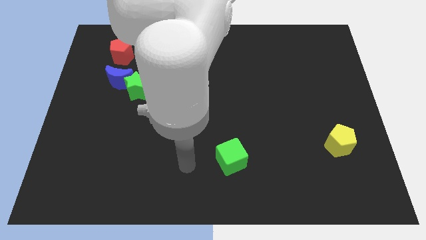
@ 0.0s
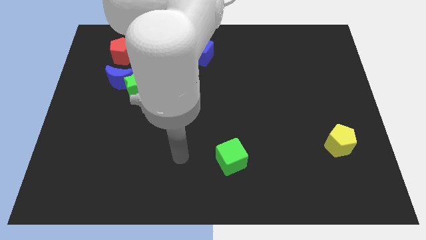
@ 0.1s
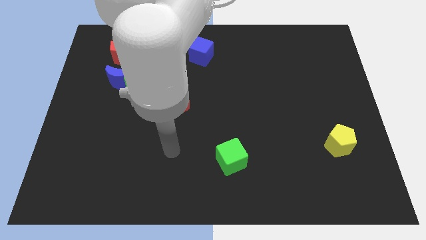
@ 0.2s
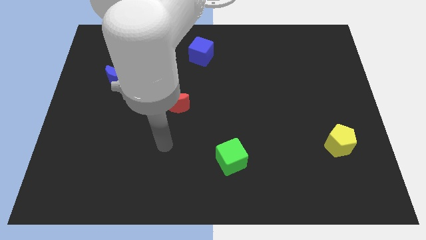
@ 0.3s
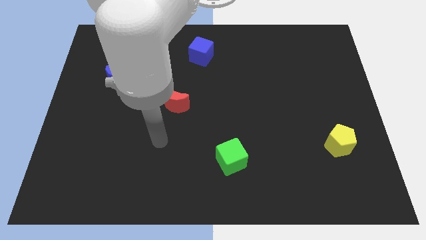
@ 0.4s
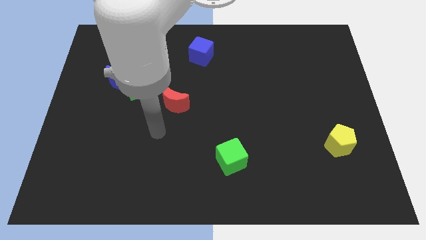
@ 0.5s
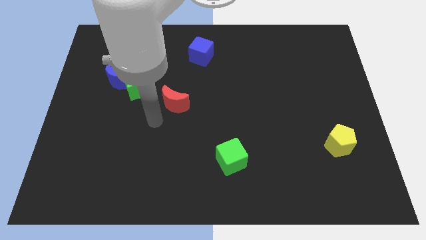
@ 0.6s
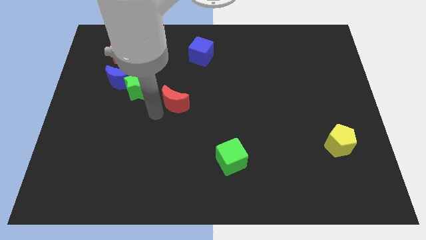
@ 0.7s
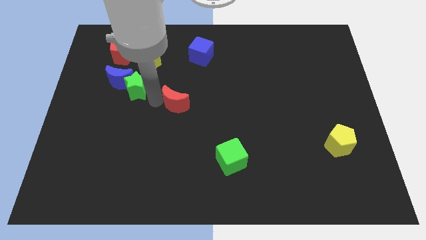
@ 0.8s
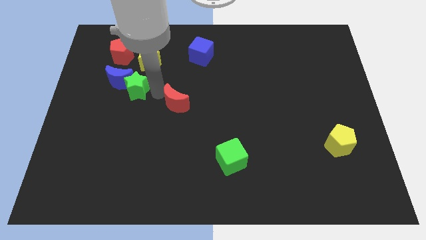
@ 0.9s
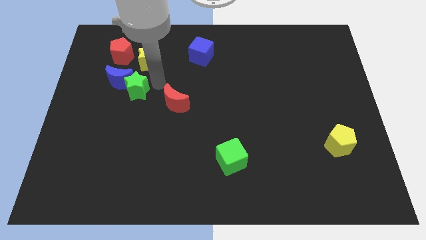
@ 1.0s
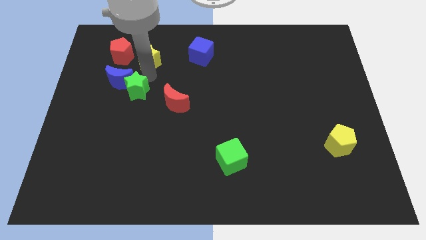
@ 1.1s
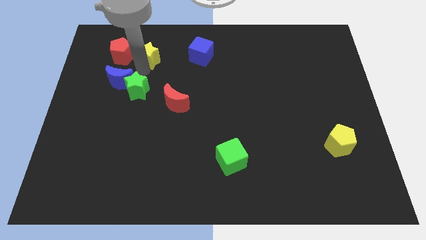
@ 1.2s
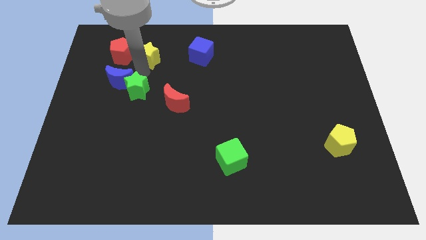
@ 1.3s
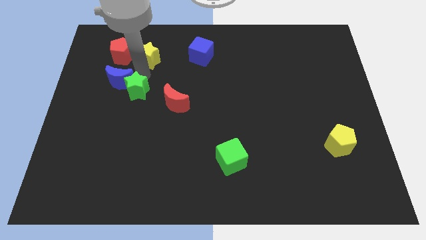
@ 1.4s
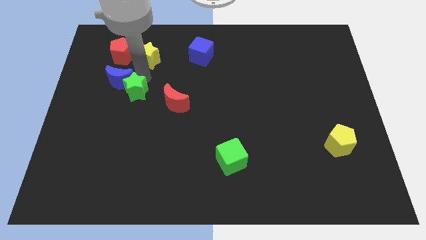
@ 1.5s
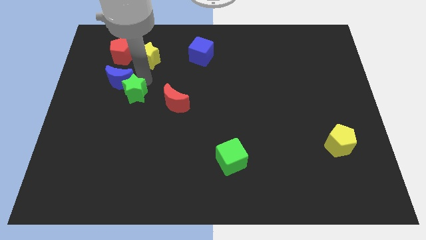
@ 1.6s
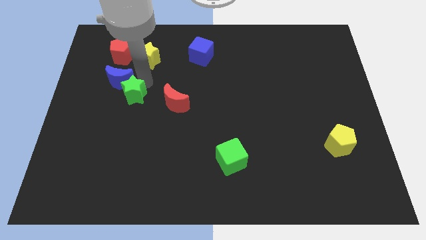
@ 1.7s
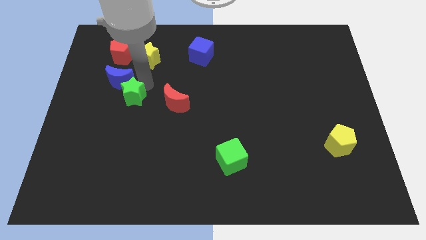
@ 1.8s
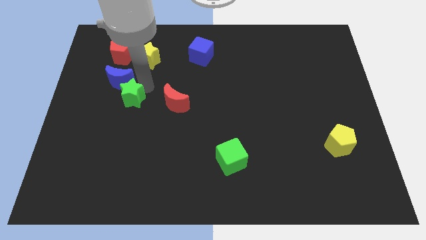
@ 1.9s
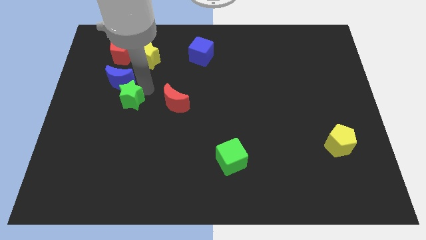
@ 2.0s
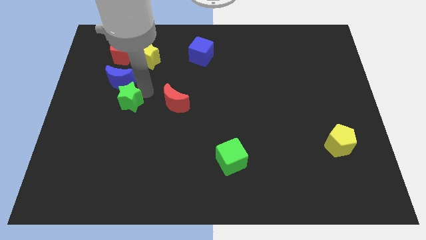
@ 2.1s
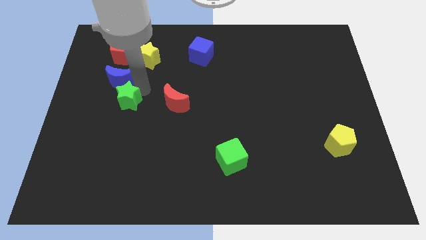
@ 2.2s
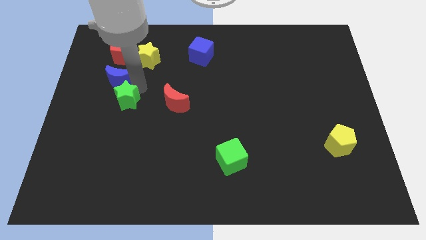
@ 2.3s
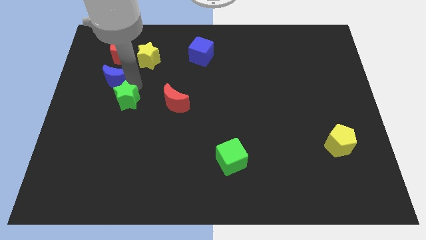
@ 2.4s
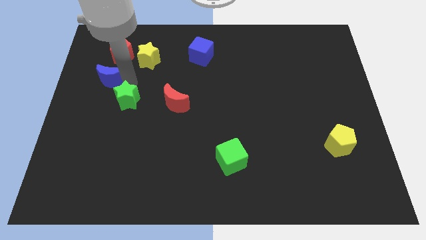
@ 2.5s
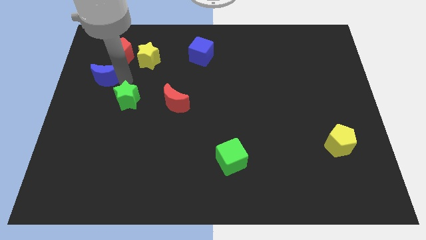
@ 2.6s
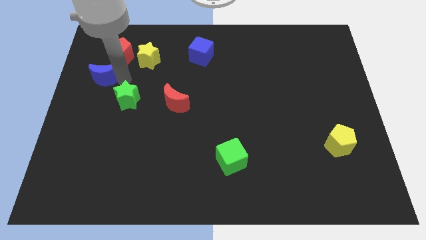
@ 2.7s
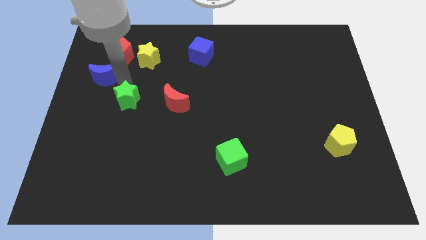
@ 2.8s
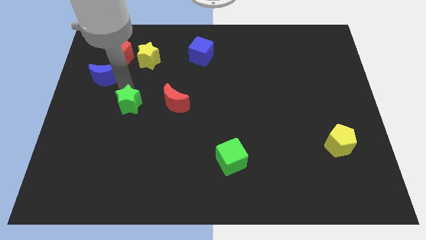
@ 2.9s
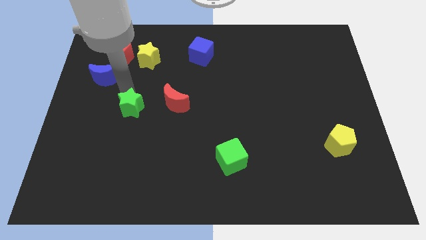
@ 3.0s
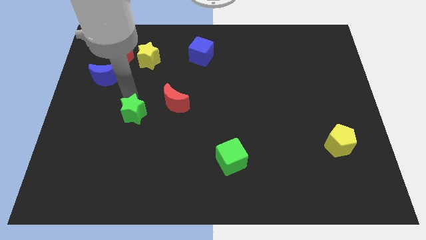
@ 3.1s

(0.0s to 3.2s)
push the green star a bit down

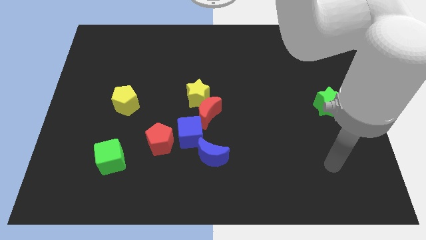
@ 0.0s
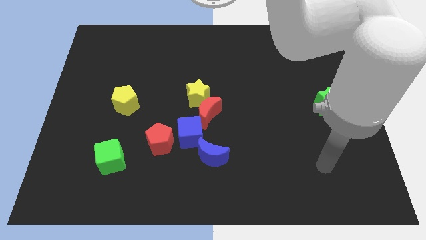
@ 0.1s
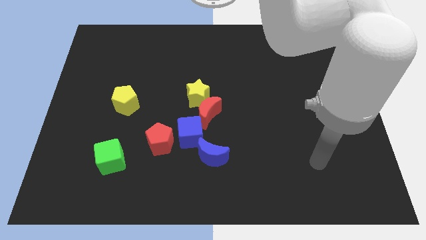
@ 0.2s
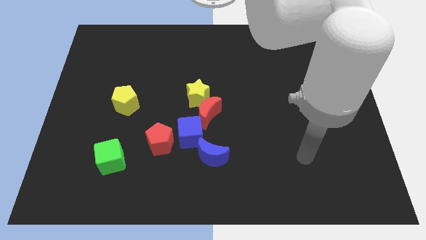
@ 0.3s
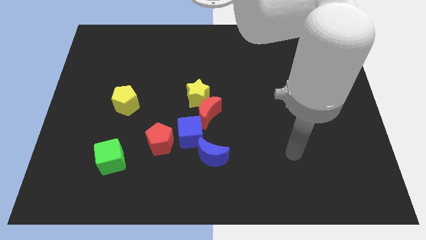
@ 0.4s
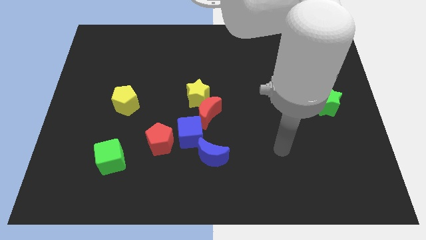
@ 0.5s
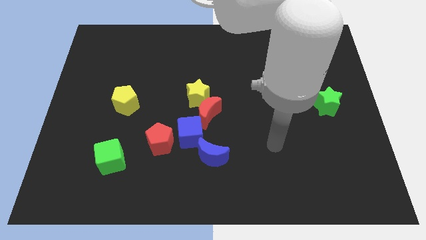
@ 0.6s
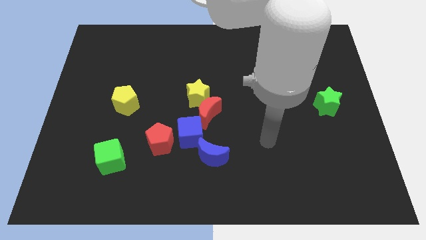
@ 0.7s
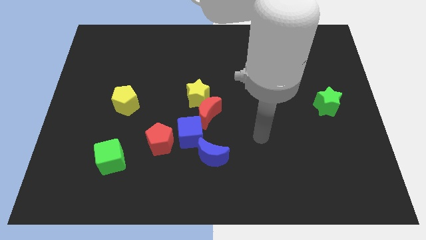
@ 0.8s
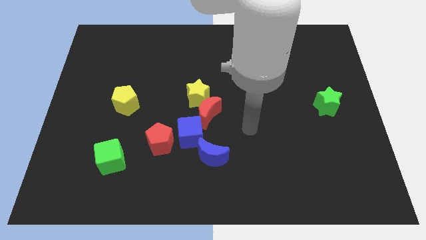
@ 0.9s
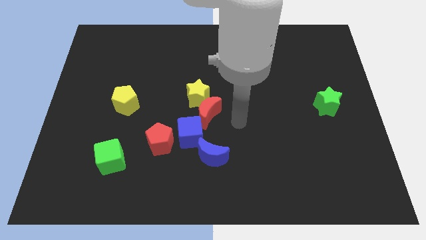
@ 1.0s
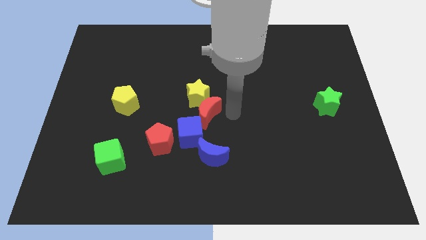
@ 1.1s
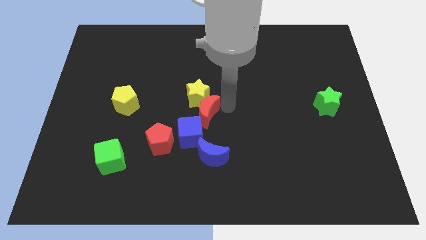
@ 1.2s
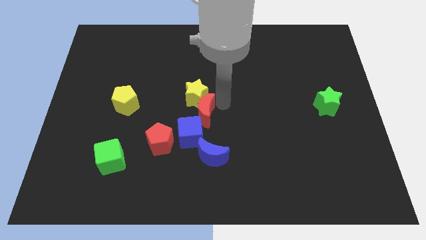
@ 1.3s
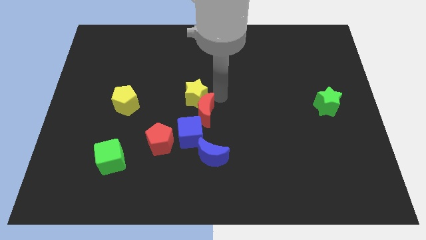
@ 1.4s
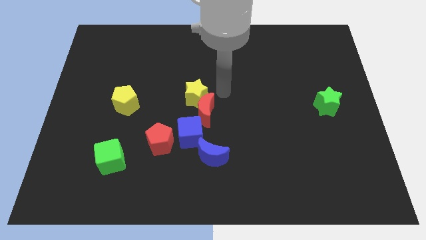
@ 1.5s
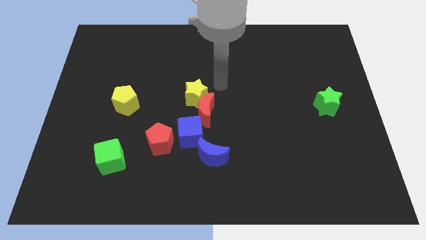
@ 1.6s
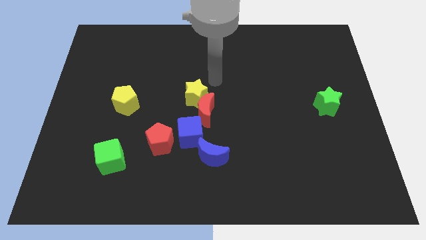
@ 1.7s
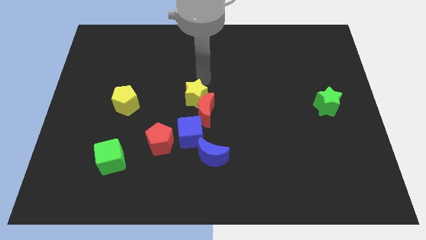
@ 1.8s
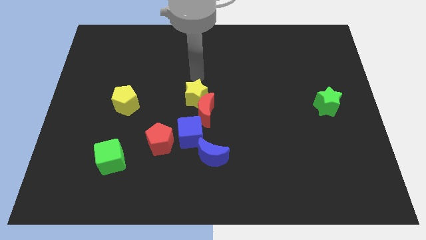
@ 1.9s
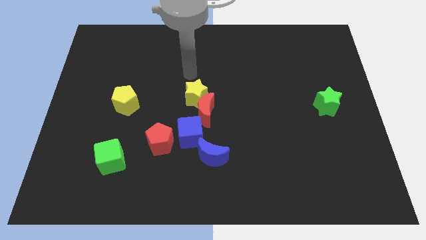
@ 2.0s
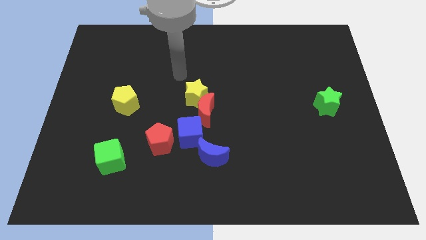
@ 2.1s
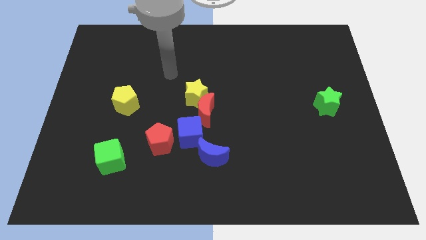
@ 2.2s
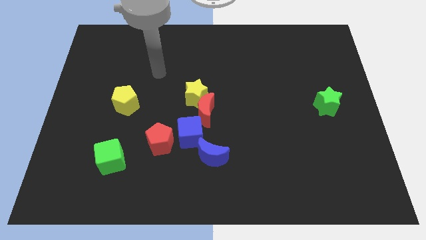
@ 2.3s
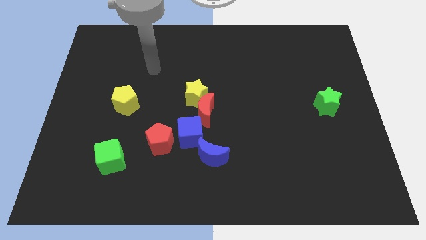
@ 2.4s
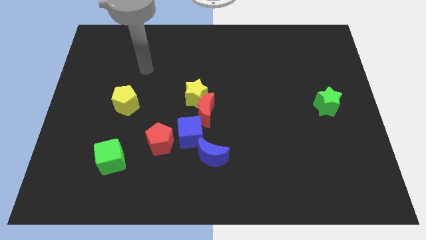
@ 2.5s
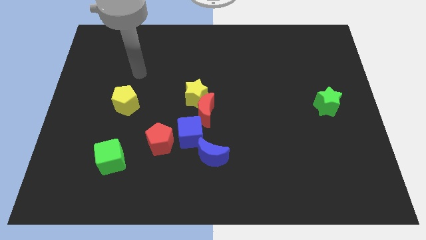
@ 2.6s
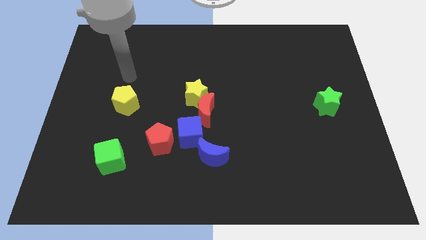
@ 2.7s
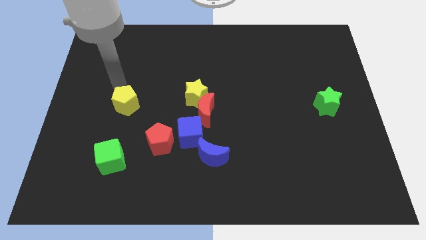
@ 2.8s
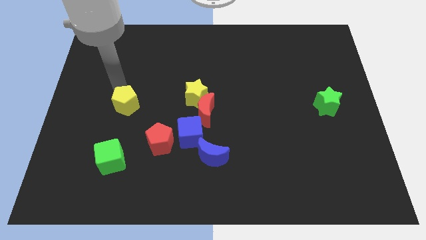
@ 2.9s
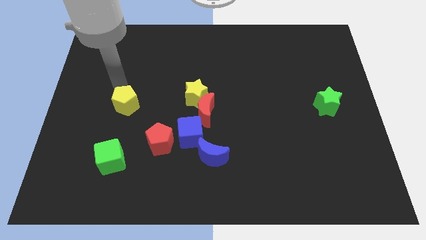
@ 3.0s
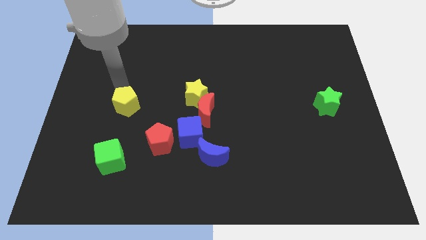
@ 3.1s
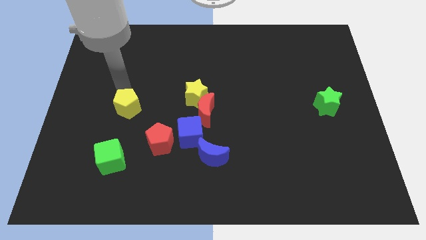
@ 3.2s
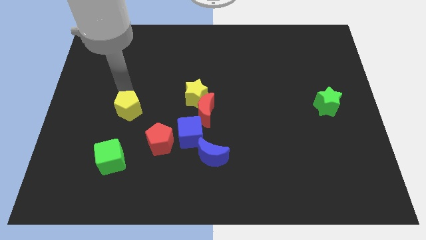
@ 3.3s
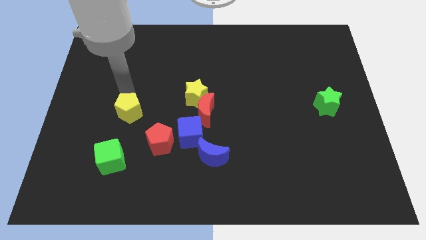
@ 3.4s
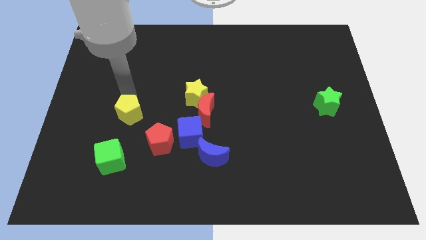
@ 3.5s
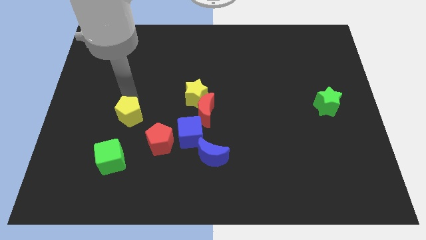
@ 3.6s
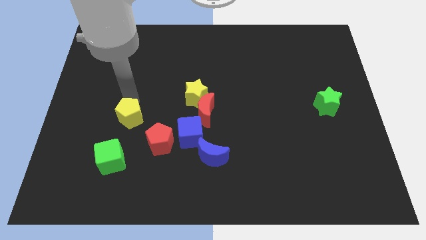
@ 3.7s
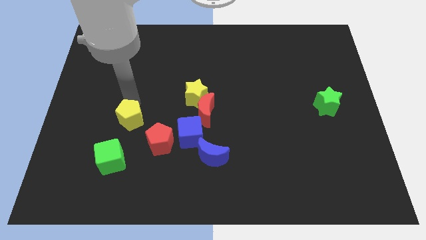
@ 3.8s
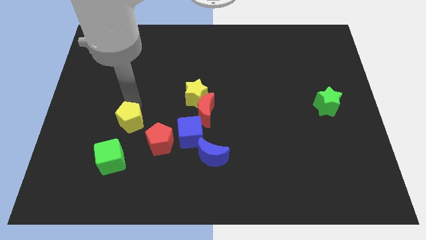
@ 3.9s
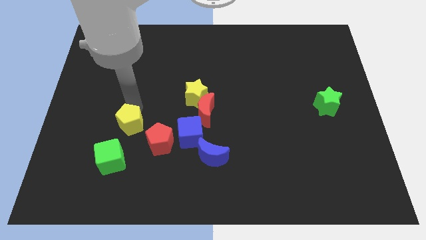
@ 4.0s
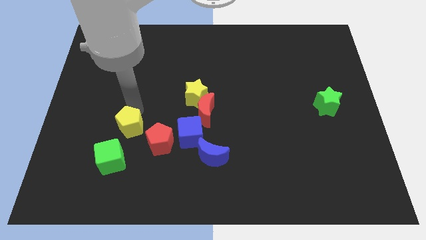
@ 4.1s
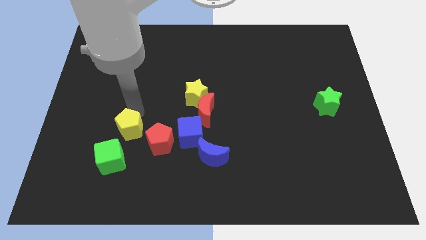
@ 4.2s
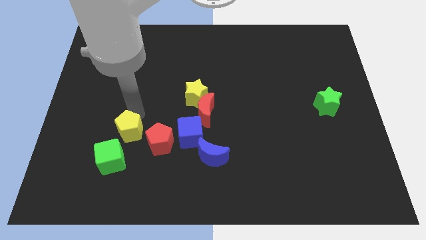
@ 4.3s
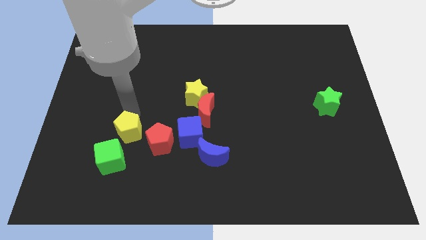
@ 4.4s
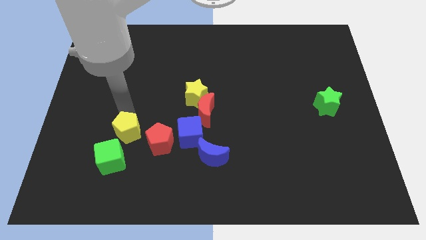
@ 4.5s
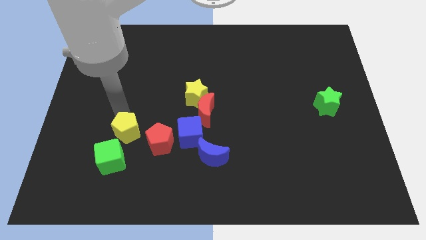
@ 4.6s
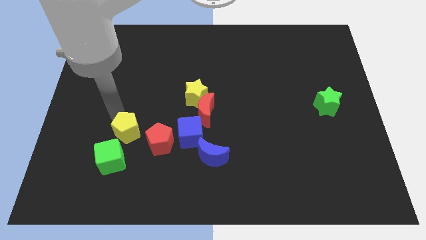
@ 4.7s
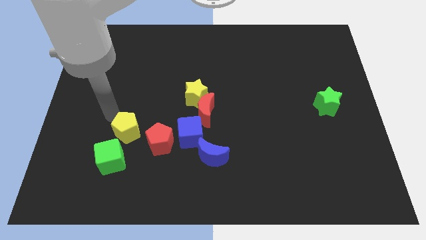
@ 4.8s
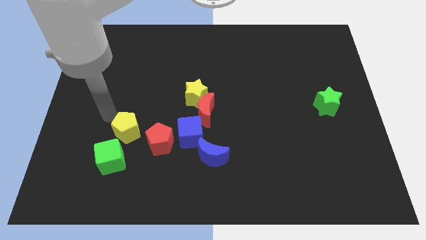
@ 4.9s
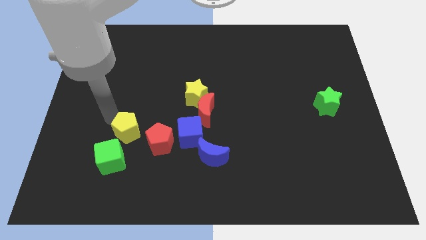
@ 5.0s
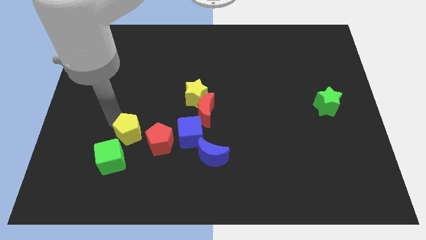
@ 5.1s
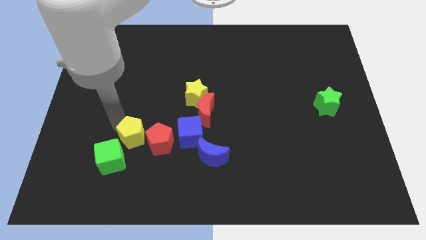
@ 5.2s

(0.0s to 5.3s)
move the yellow pentagon a bit down and right

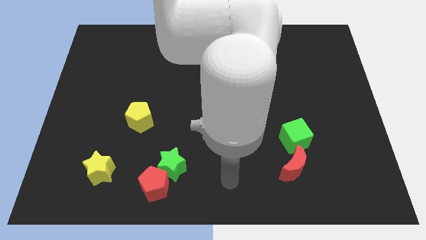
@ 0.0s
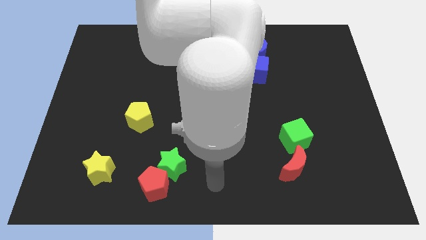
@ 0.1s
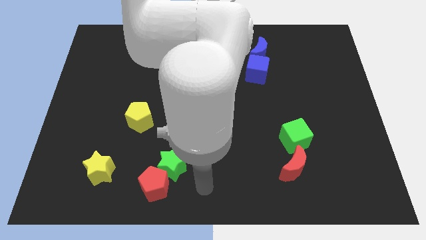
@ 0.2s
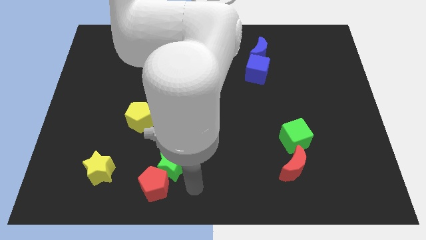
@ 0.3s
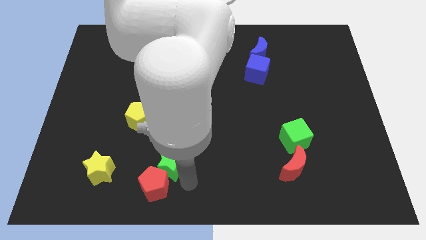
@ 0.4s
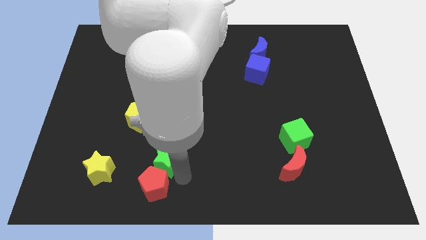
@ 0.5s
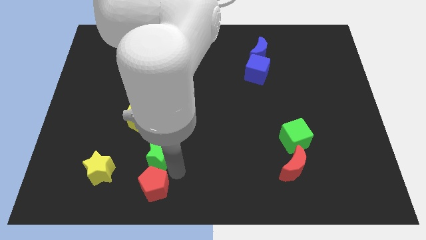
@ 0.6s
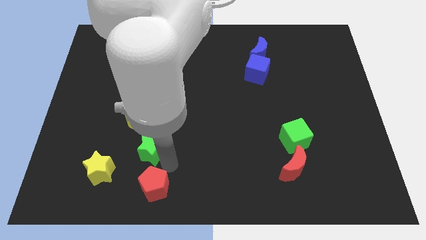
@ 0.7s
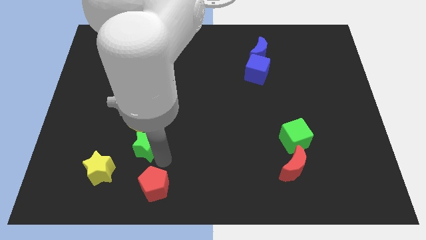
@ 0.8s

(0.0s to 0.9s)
slightly push the green star diagonally upwards and left
